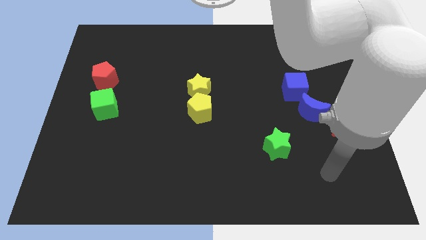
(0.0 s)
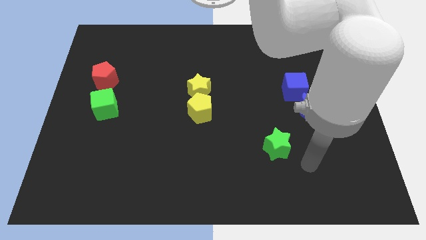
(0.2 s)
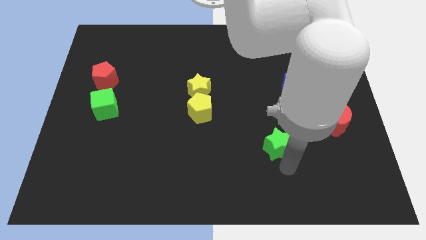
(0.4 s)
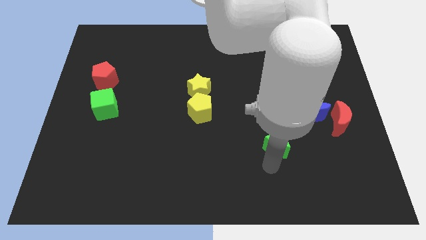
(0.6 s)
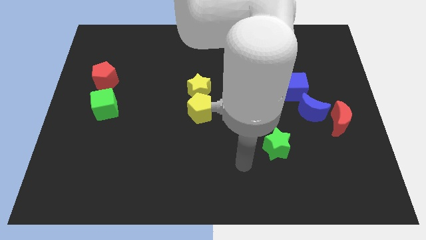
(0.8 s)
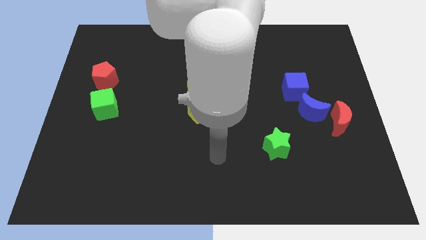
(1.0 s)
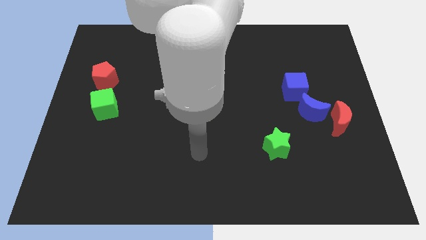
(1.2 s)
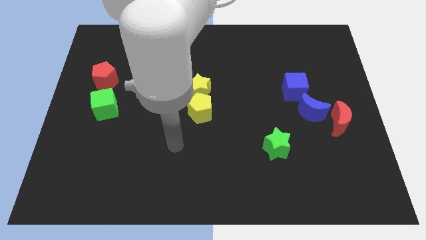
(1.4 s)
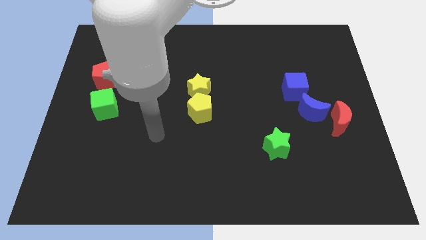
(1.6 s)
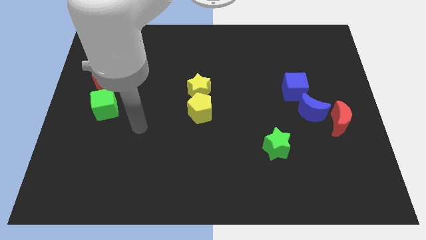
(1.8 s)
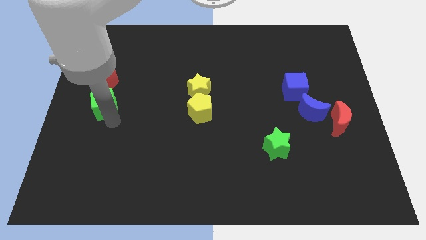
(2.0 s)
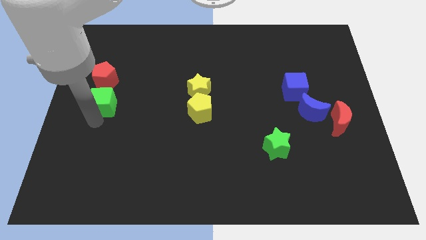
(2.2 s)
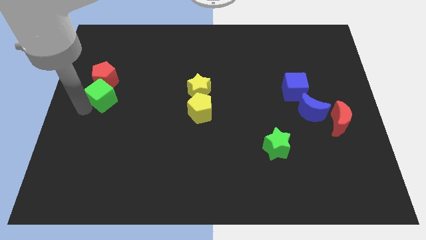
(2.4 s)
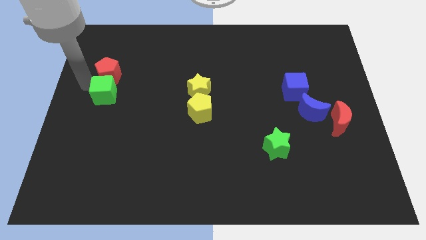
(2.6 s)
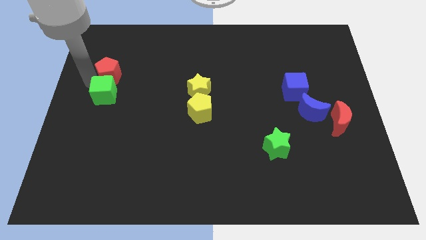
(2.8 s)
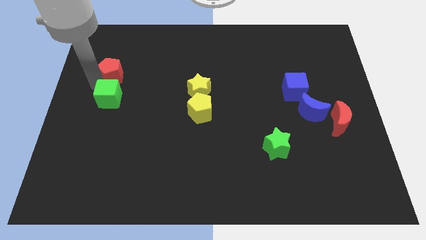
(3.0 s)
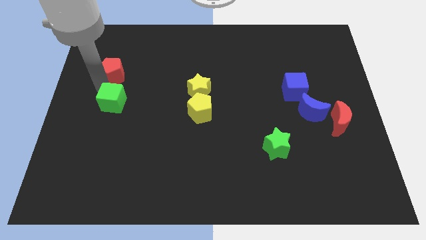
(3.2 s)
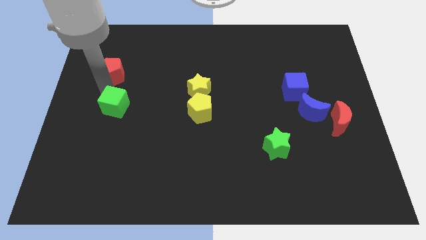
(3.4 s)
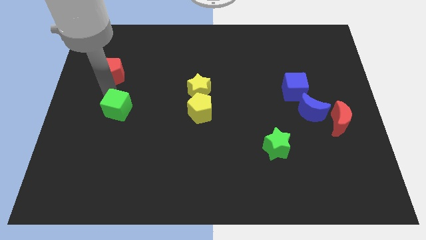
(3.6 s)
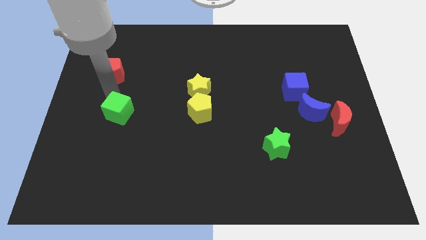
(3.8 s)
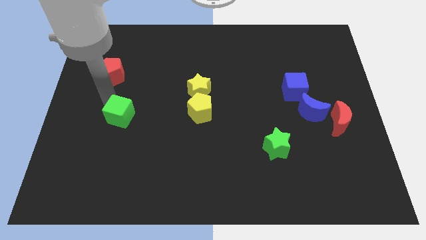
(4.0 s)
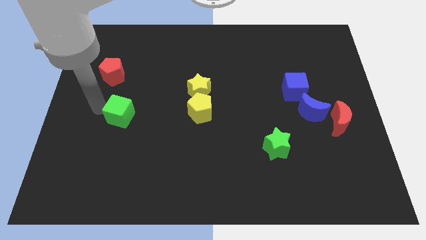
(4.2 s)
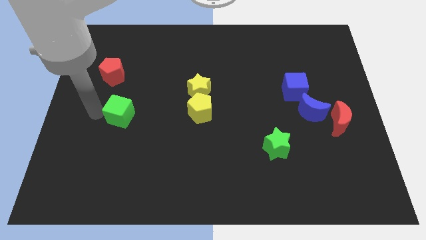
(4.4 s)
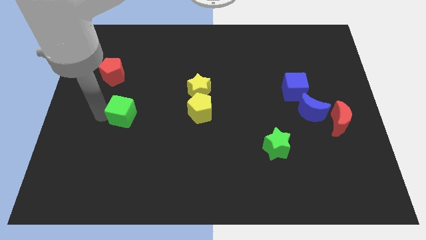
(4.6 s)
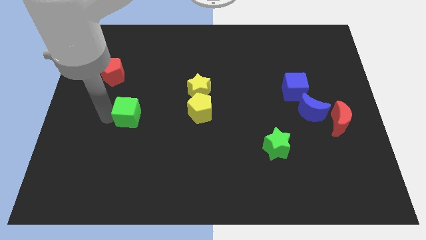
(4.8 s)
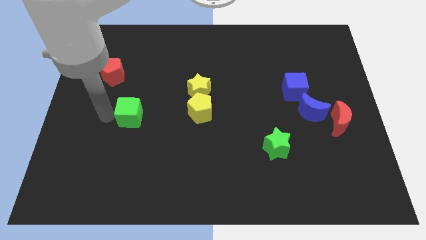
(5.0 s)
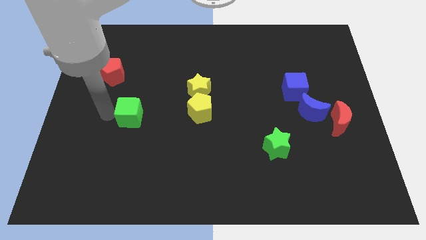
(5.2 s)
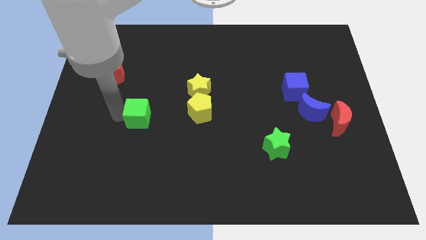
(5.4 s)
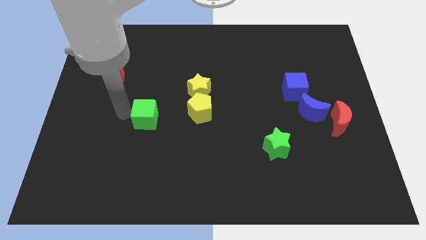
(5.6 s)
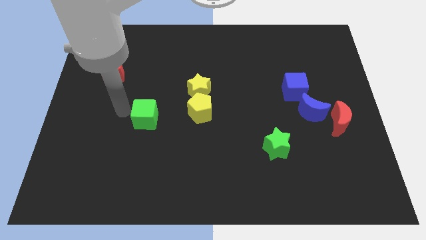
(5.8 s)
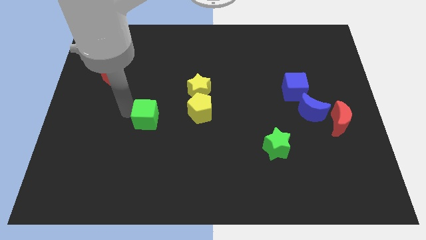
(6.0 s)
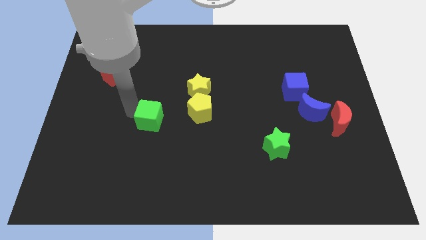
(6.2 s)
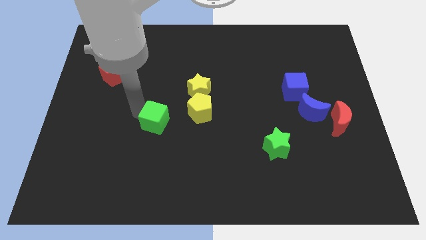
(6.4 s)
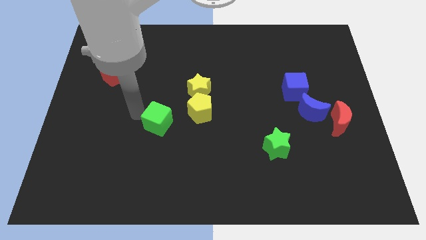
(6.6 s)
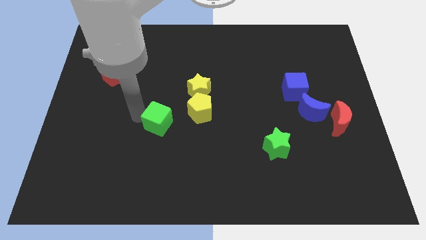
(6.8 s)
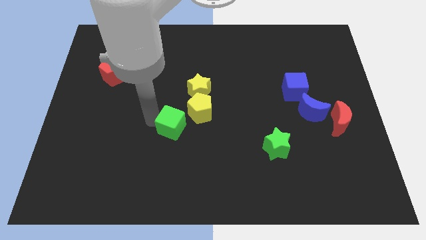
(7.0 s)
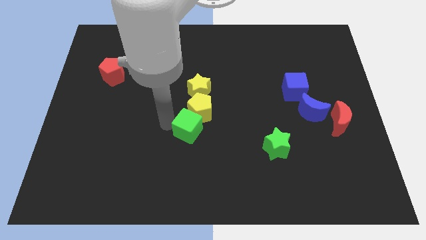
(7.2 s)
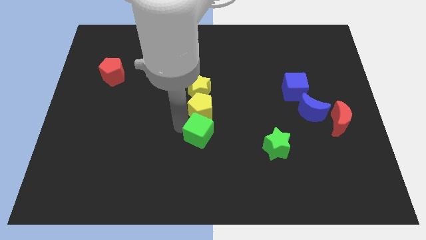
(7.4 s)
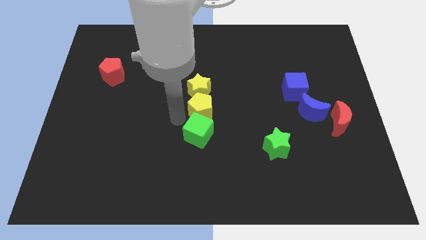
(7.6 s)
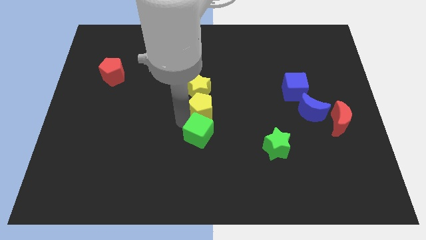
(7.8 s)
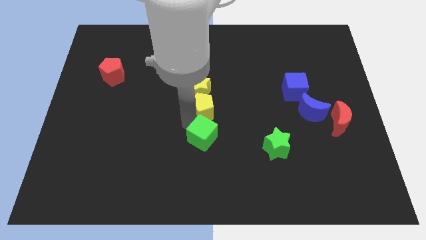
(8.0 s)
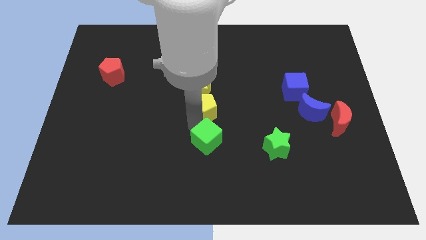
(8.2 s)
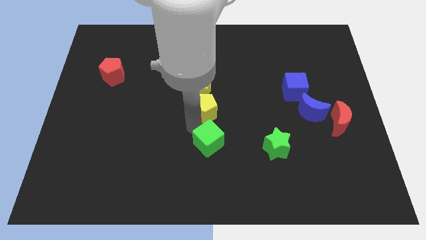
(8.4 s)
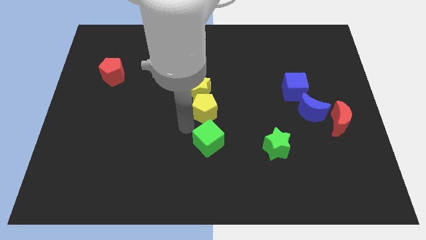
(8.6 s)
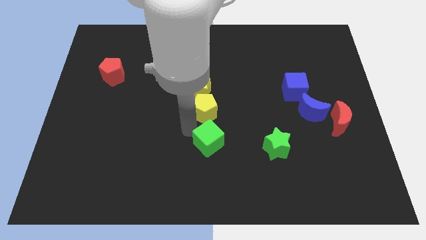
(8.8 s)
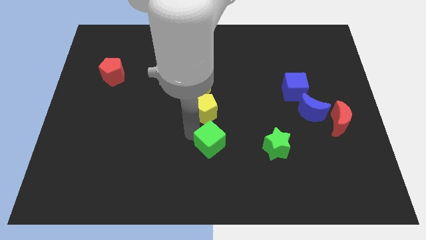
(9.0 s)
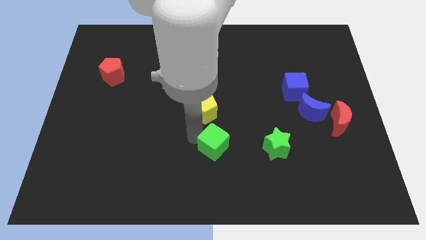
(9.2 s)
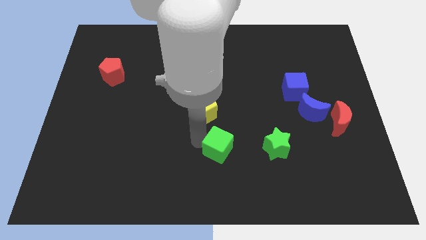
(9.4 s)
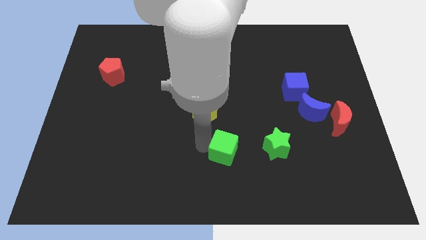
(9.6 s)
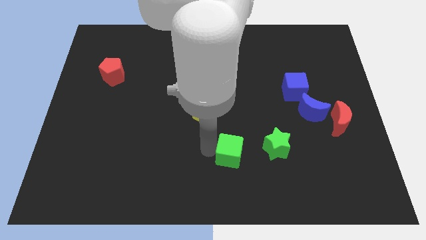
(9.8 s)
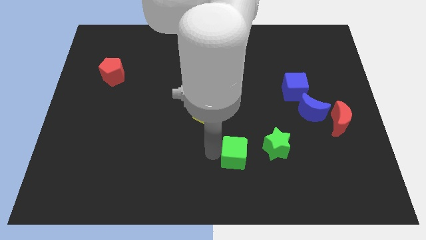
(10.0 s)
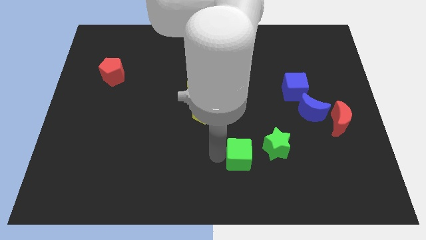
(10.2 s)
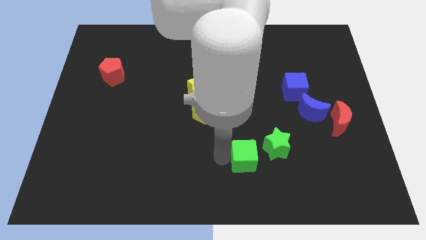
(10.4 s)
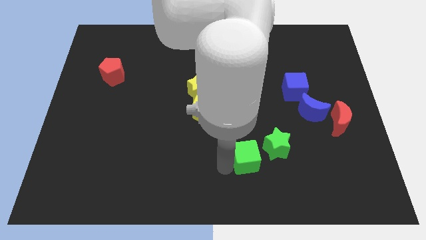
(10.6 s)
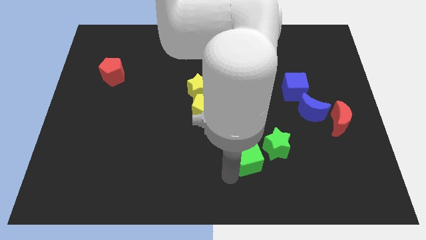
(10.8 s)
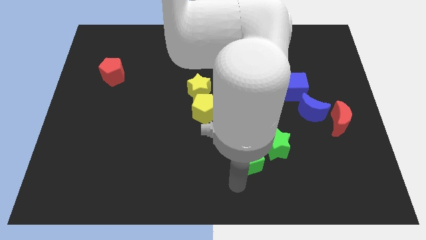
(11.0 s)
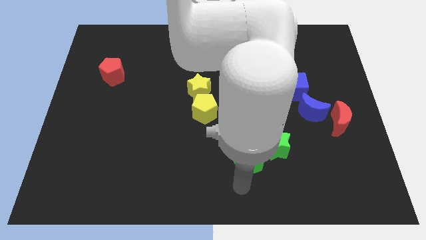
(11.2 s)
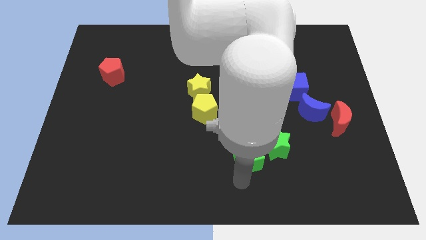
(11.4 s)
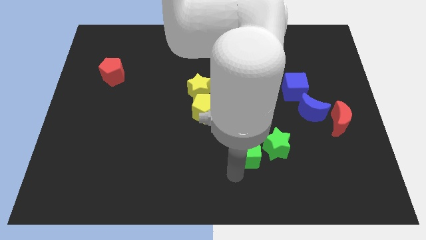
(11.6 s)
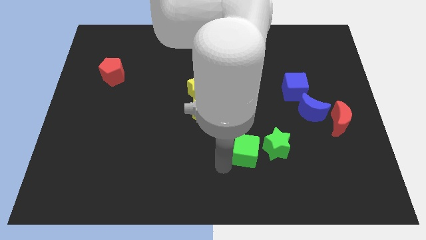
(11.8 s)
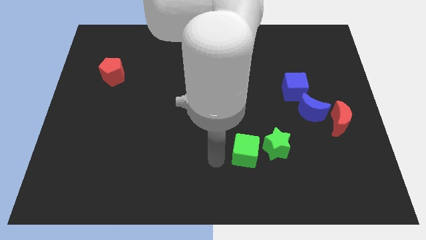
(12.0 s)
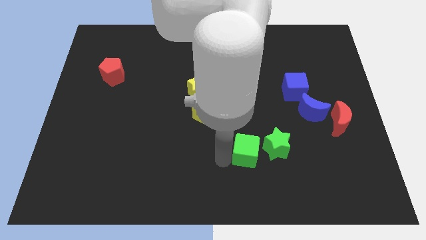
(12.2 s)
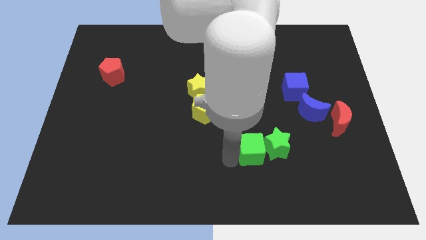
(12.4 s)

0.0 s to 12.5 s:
push the green cube to the green star

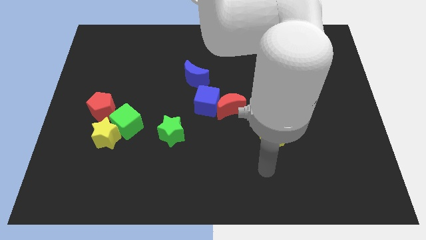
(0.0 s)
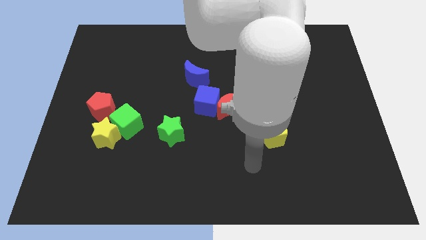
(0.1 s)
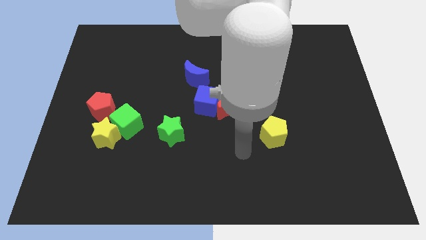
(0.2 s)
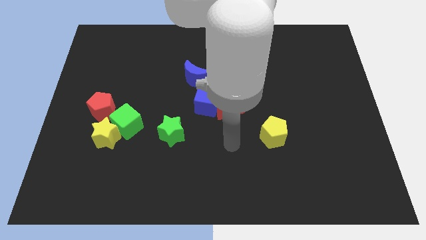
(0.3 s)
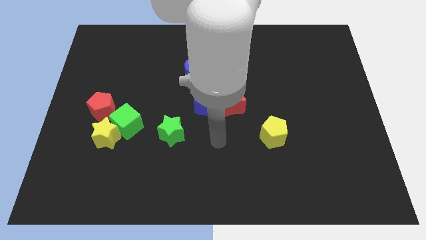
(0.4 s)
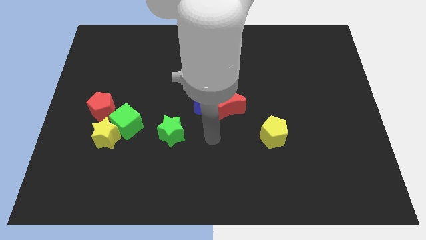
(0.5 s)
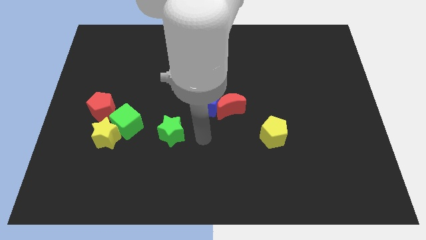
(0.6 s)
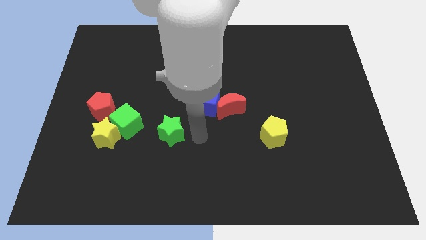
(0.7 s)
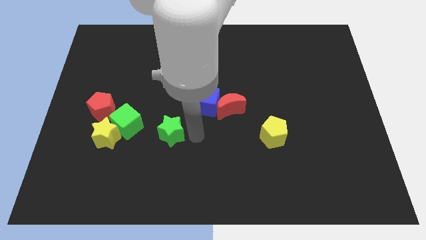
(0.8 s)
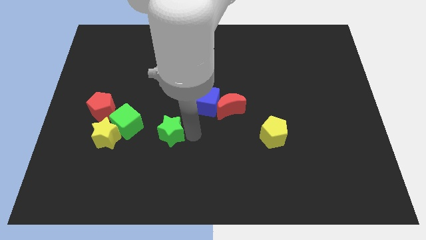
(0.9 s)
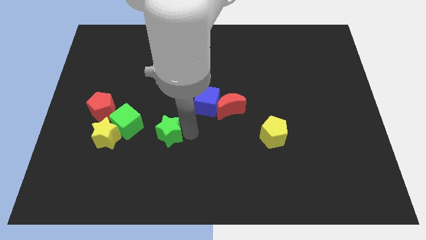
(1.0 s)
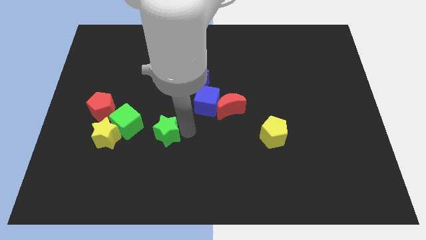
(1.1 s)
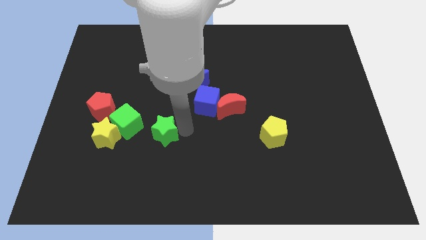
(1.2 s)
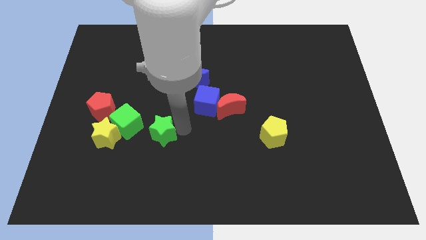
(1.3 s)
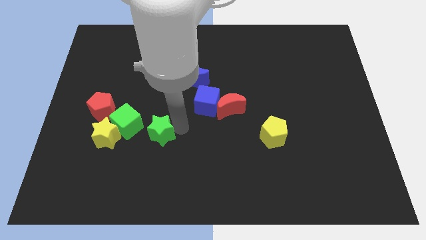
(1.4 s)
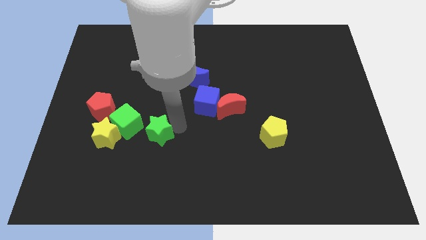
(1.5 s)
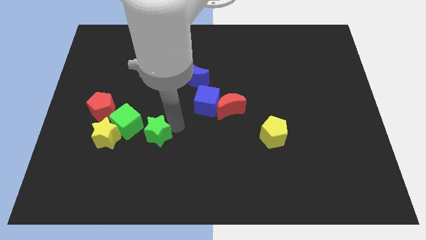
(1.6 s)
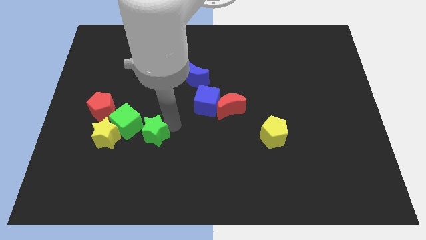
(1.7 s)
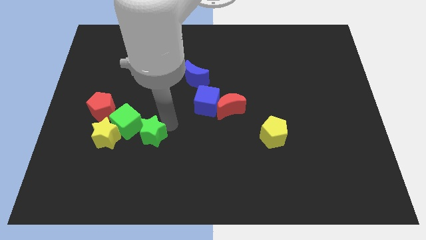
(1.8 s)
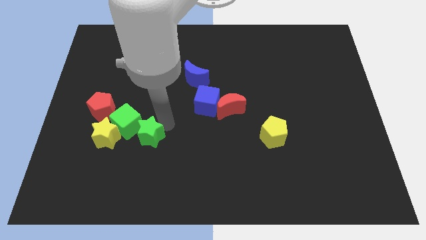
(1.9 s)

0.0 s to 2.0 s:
push the green star close to the green cube
